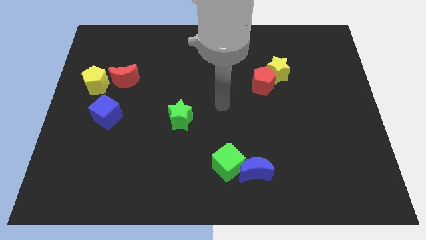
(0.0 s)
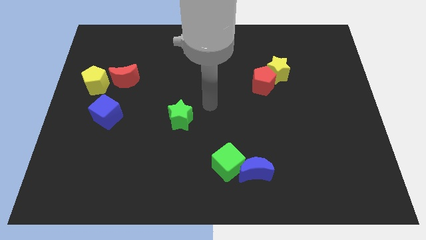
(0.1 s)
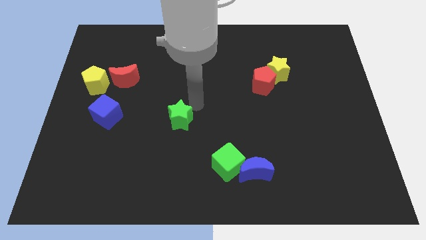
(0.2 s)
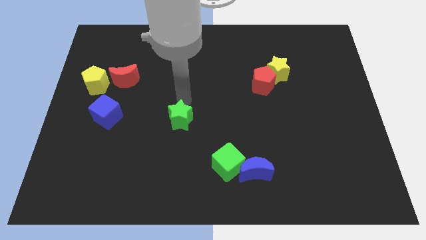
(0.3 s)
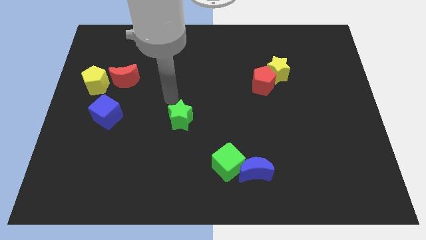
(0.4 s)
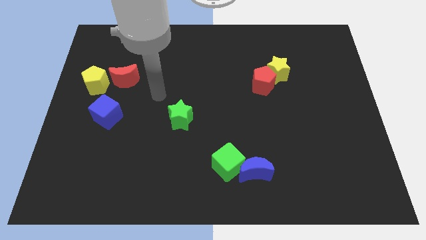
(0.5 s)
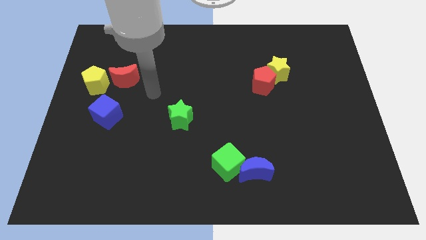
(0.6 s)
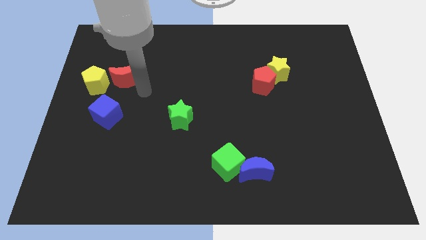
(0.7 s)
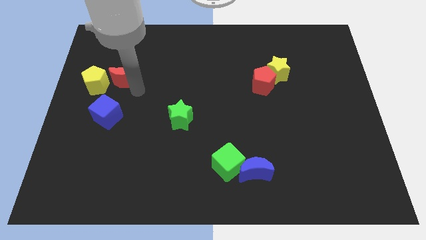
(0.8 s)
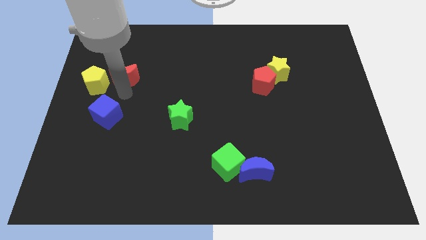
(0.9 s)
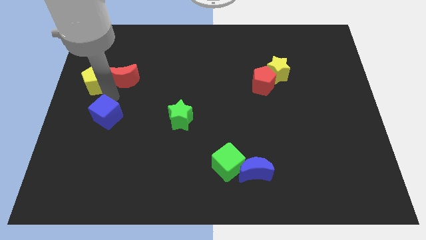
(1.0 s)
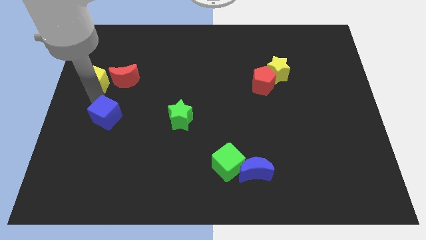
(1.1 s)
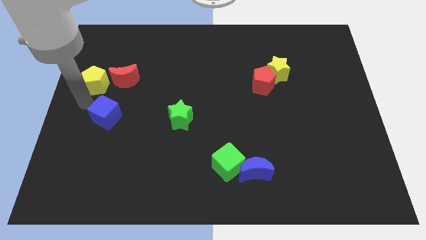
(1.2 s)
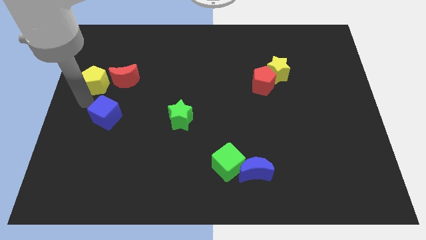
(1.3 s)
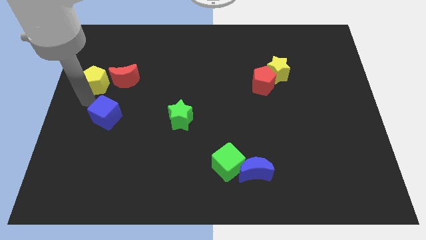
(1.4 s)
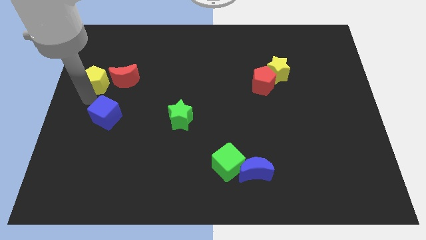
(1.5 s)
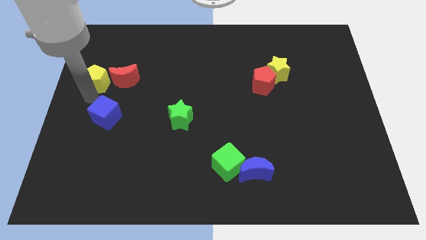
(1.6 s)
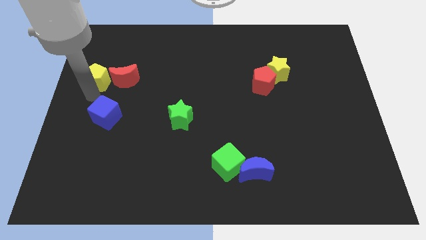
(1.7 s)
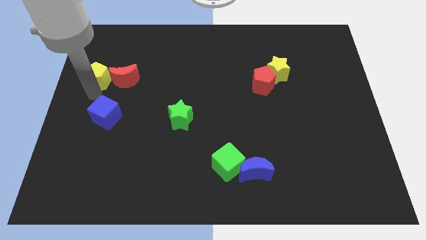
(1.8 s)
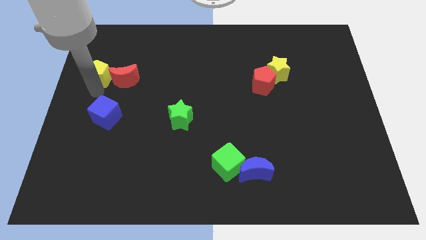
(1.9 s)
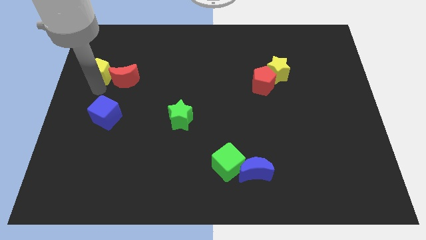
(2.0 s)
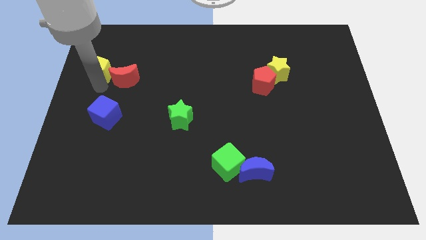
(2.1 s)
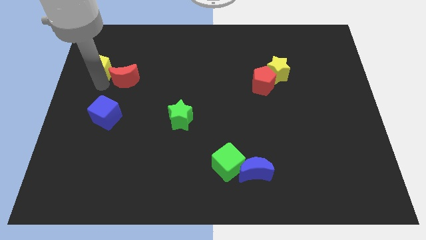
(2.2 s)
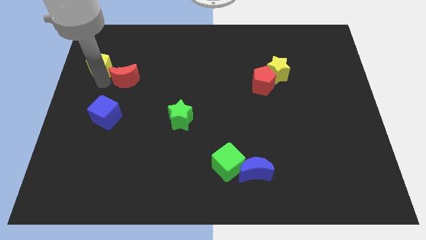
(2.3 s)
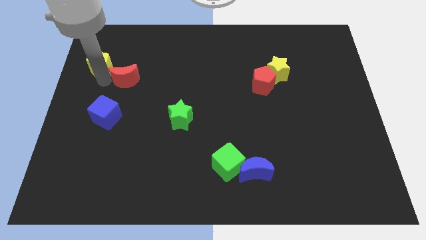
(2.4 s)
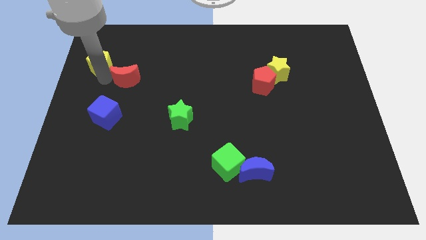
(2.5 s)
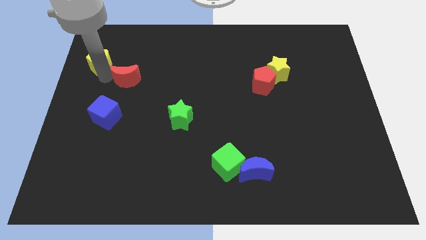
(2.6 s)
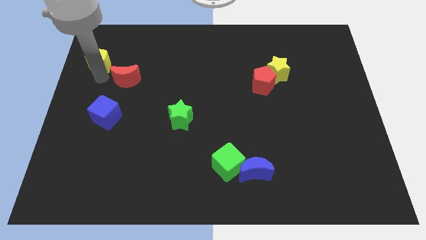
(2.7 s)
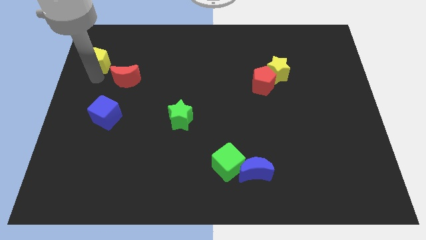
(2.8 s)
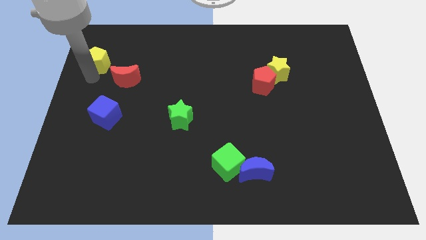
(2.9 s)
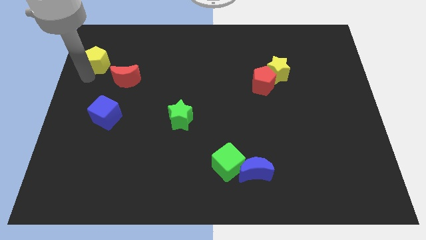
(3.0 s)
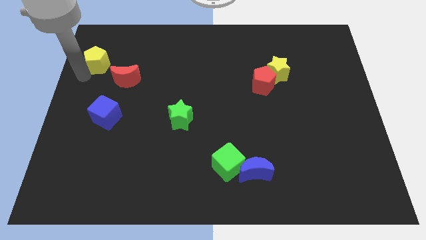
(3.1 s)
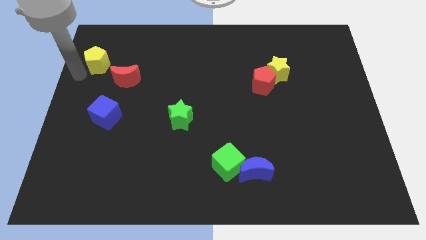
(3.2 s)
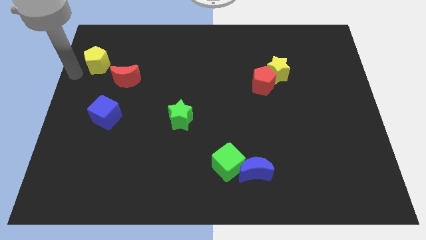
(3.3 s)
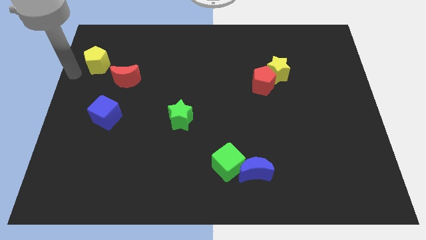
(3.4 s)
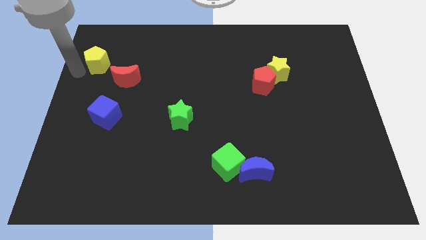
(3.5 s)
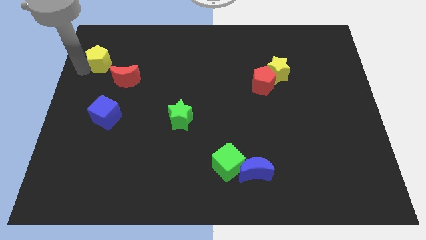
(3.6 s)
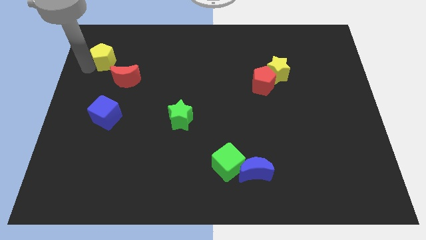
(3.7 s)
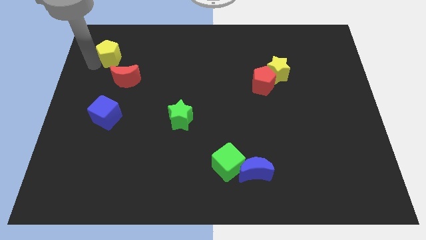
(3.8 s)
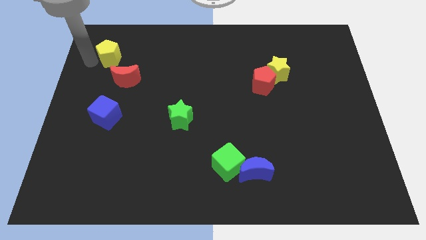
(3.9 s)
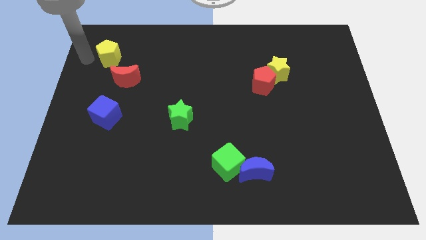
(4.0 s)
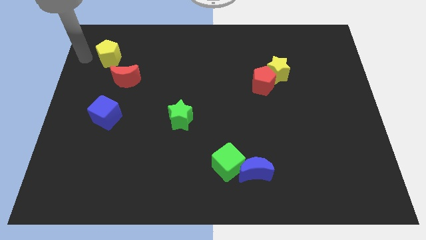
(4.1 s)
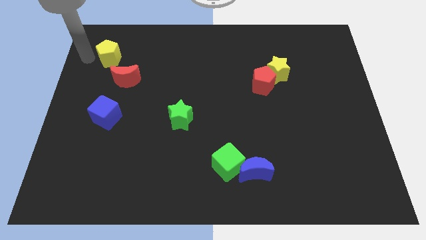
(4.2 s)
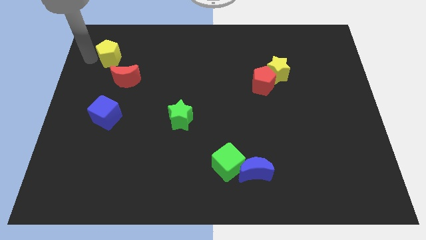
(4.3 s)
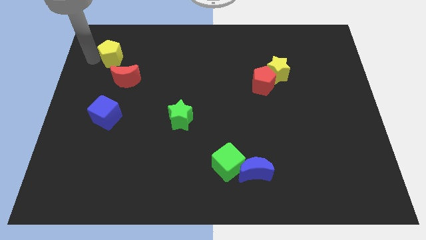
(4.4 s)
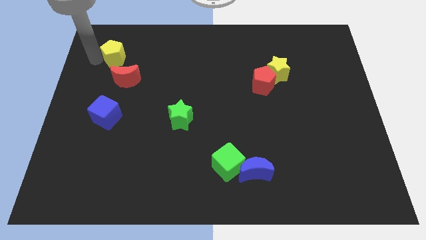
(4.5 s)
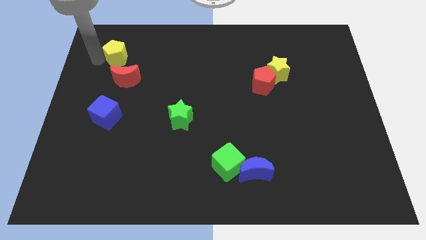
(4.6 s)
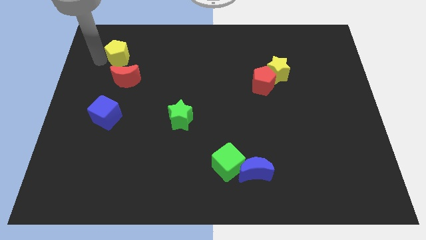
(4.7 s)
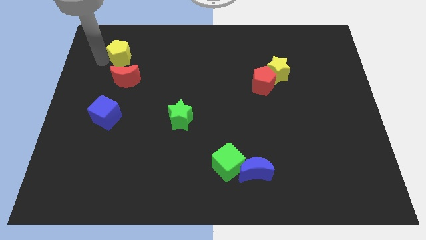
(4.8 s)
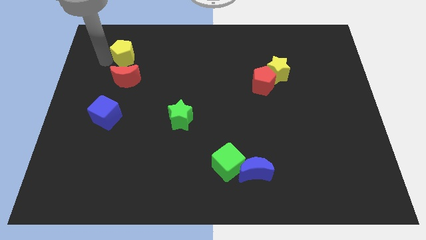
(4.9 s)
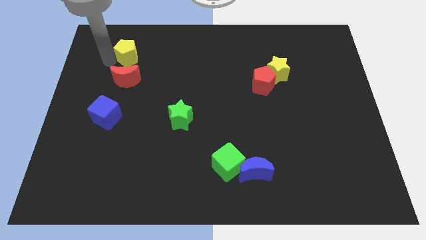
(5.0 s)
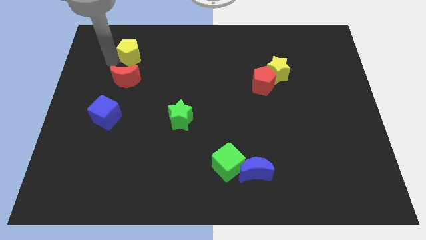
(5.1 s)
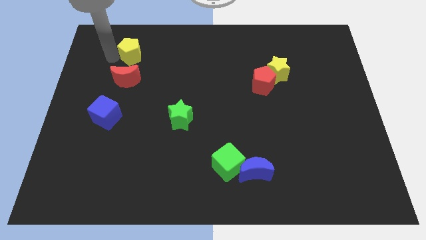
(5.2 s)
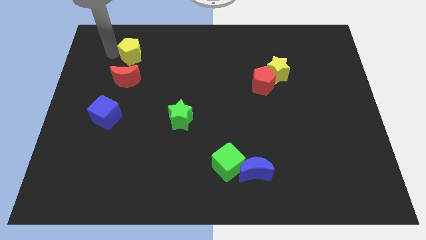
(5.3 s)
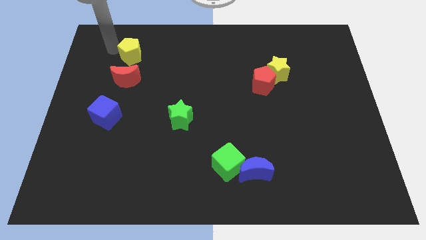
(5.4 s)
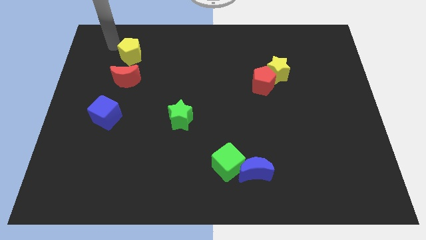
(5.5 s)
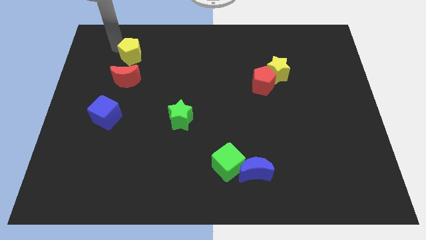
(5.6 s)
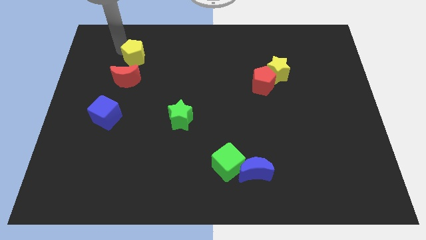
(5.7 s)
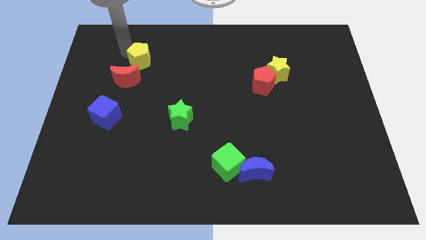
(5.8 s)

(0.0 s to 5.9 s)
move the yellow pentagon to the top right side of the red moon

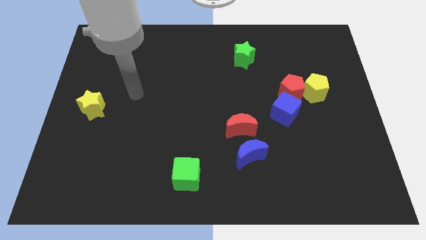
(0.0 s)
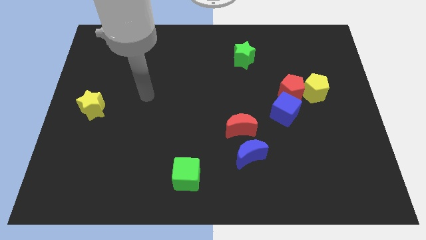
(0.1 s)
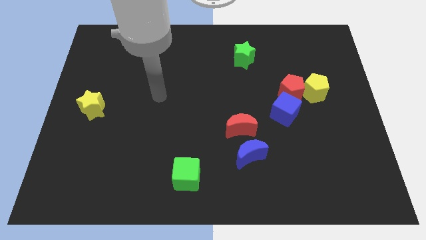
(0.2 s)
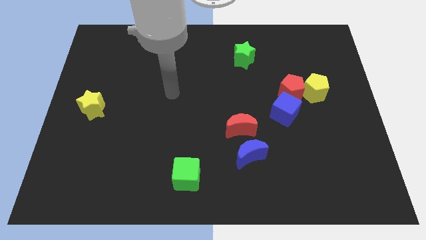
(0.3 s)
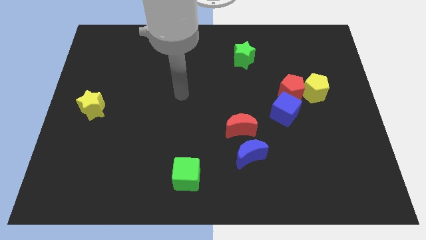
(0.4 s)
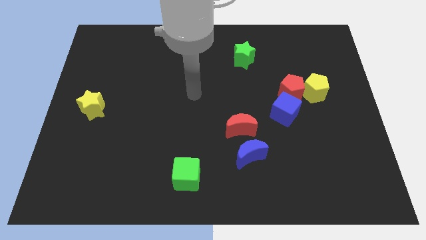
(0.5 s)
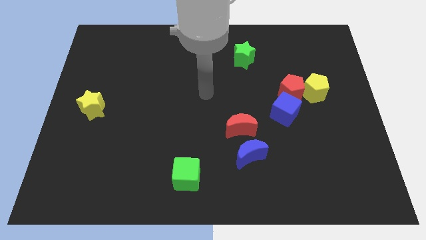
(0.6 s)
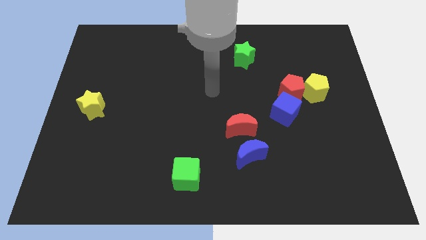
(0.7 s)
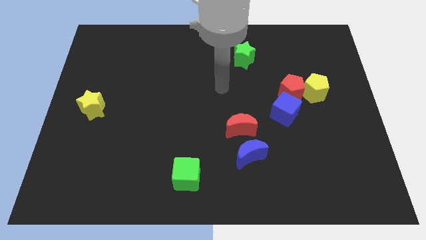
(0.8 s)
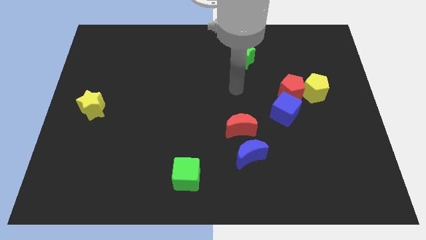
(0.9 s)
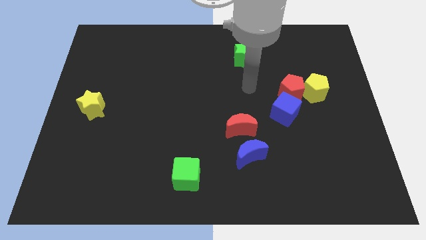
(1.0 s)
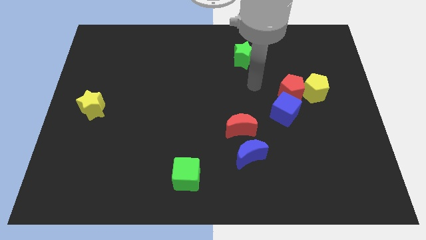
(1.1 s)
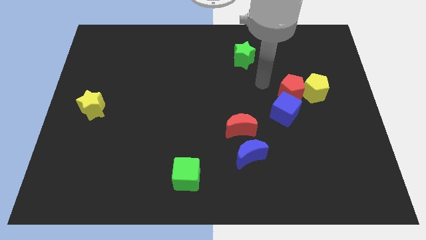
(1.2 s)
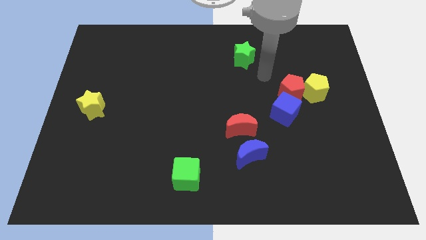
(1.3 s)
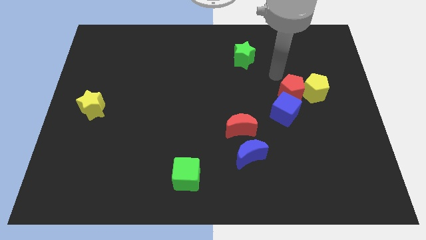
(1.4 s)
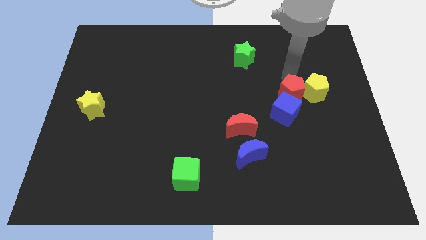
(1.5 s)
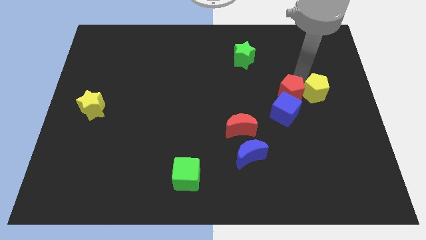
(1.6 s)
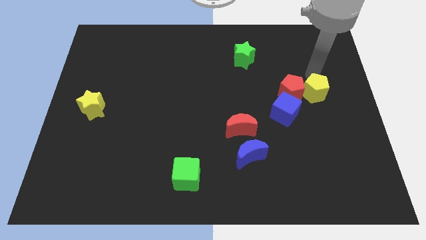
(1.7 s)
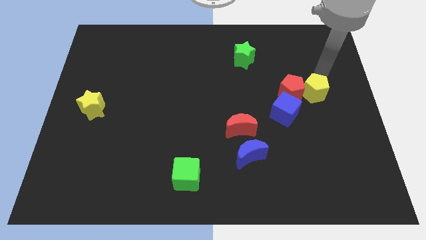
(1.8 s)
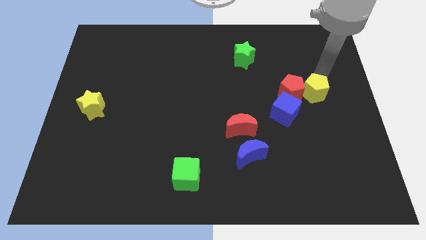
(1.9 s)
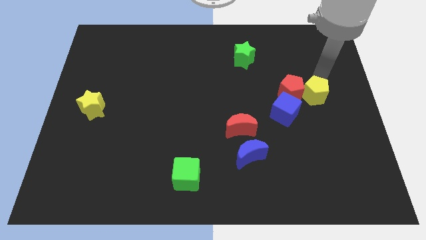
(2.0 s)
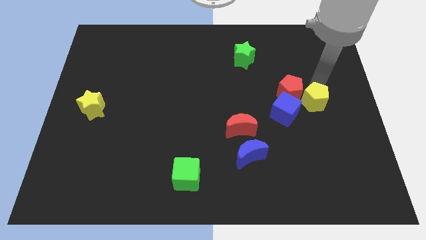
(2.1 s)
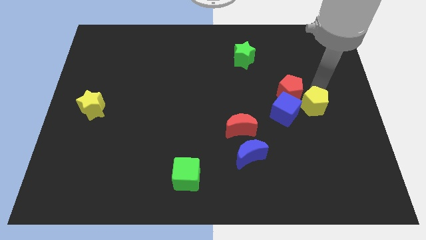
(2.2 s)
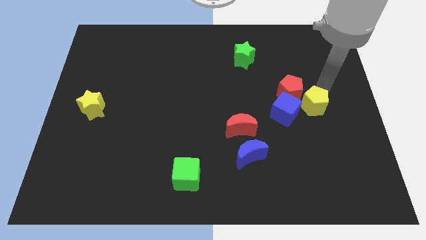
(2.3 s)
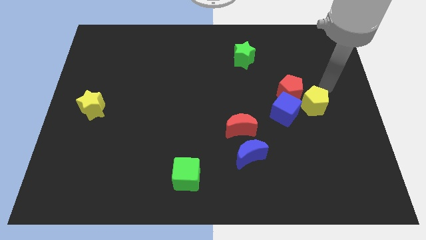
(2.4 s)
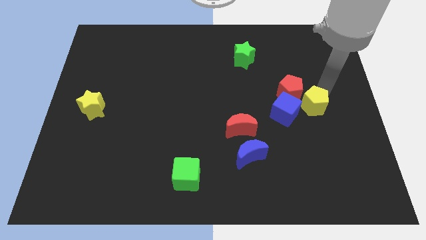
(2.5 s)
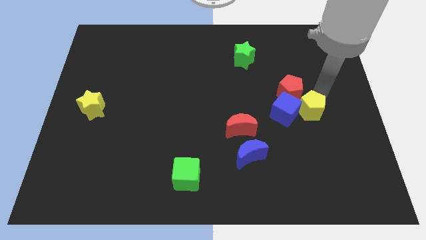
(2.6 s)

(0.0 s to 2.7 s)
put the yellow pentagon to the bottom side of the red pentagon
